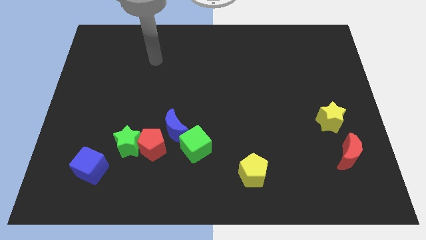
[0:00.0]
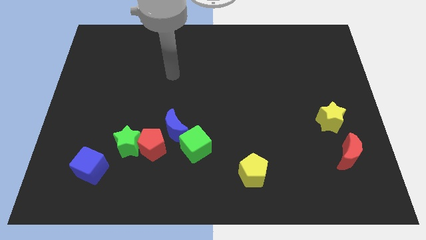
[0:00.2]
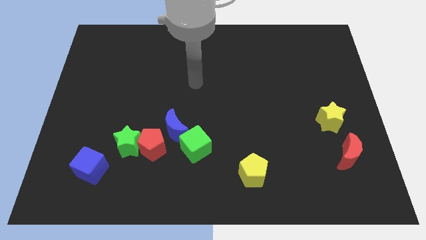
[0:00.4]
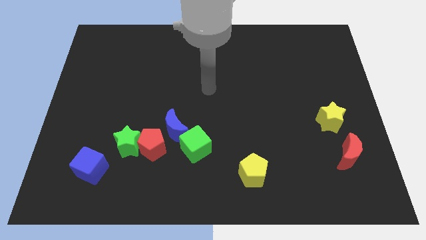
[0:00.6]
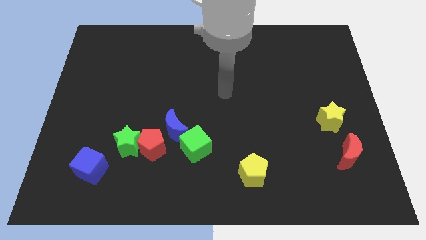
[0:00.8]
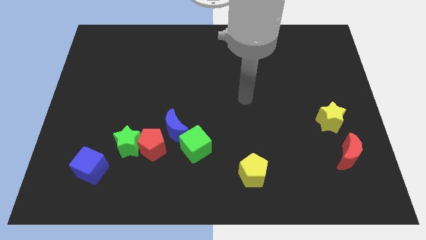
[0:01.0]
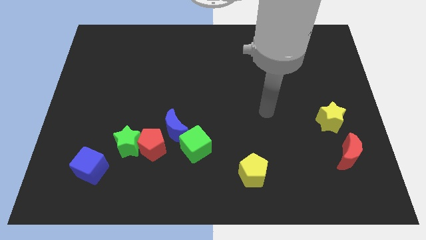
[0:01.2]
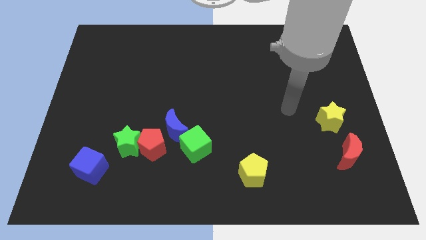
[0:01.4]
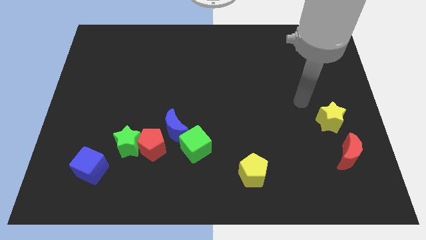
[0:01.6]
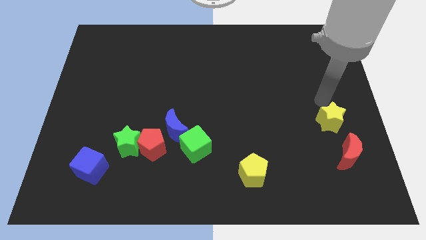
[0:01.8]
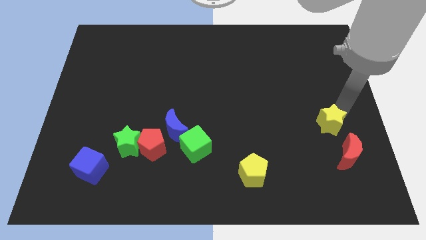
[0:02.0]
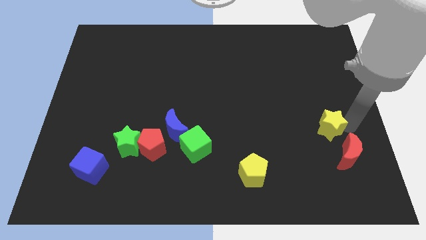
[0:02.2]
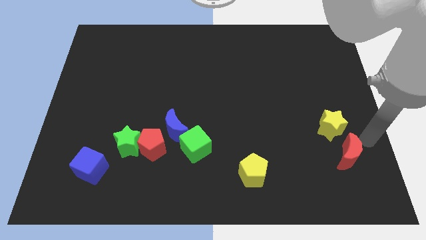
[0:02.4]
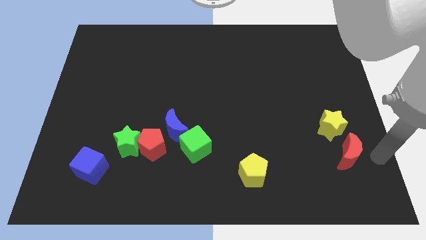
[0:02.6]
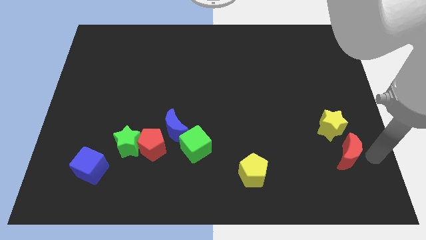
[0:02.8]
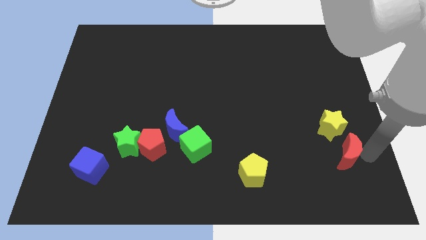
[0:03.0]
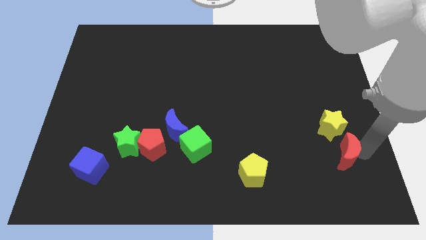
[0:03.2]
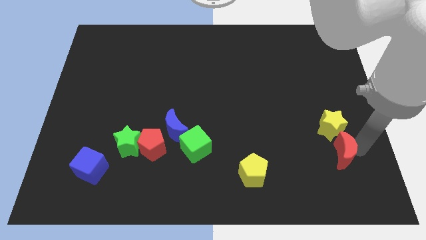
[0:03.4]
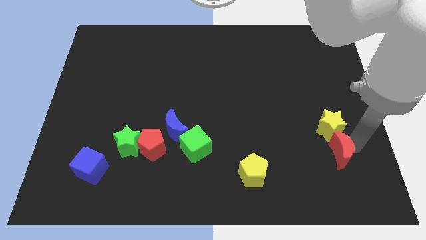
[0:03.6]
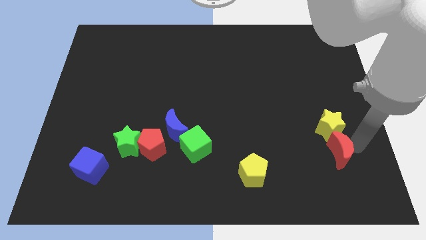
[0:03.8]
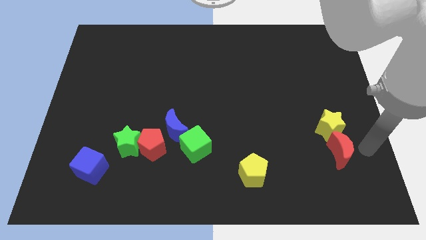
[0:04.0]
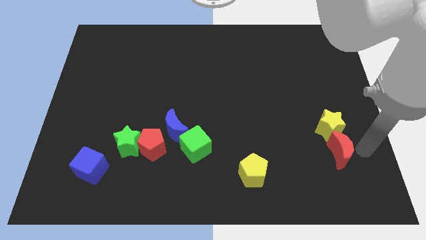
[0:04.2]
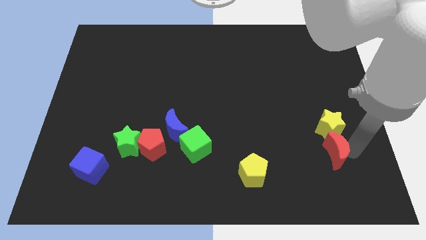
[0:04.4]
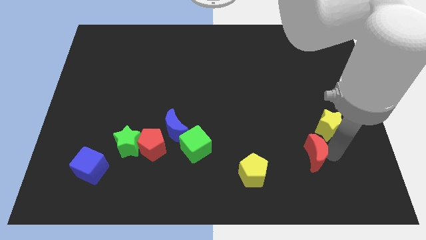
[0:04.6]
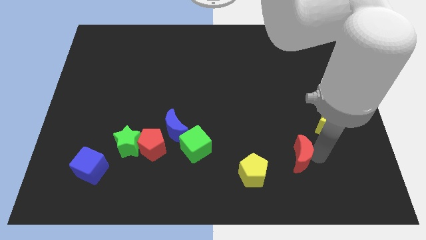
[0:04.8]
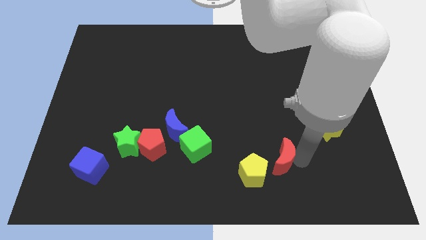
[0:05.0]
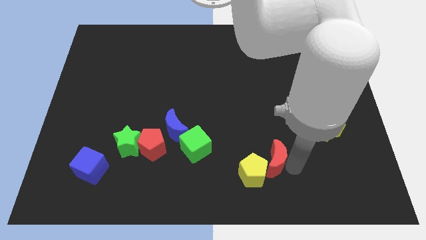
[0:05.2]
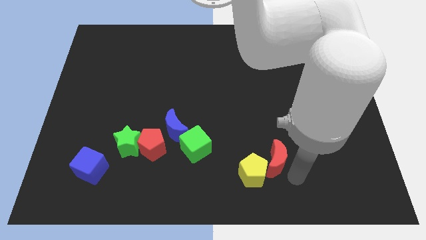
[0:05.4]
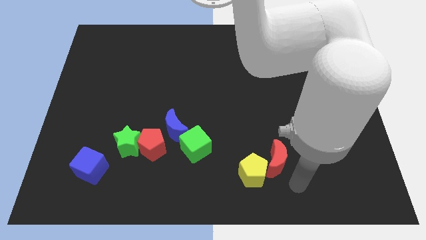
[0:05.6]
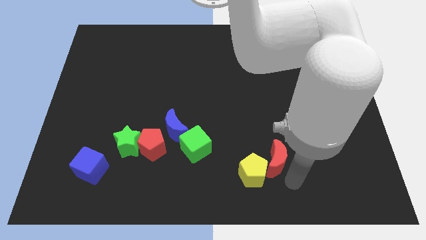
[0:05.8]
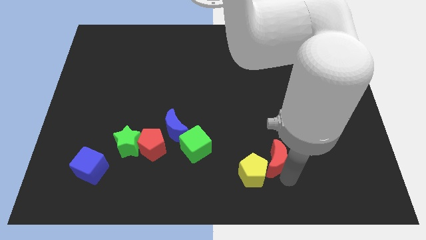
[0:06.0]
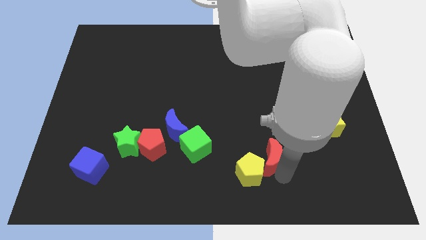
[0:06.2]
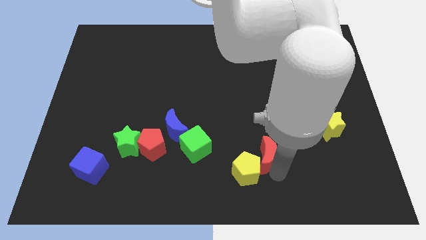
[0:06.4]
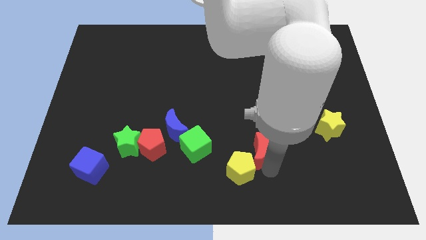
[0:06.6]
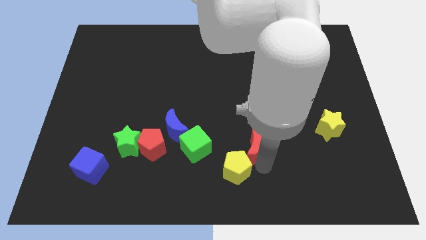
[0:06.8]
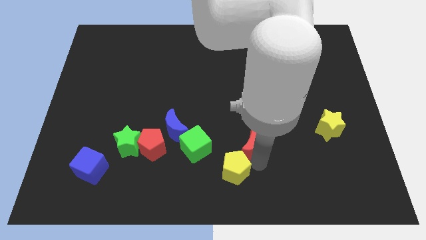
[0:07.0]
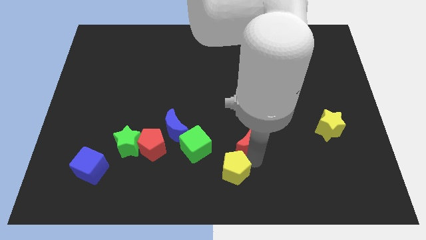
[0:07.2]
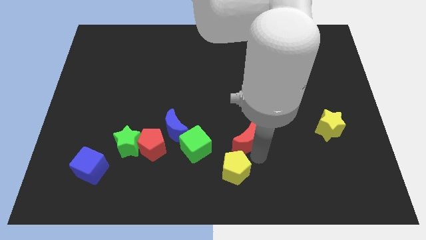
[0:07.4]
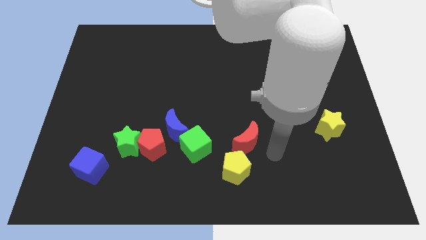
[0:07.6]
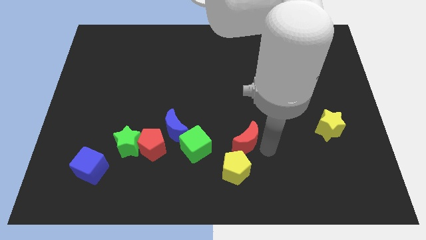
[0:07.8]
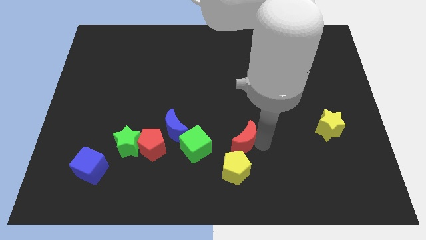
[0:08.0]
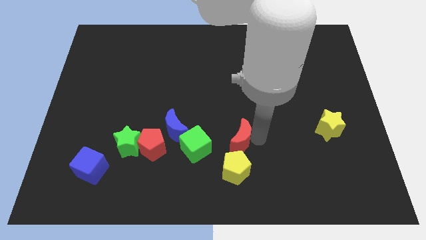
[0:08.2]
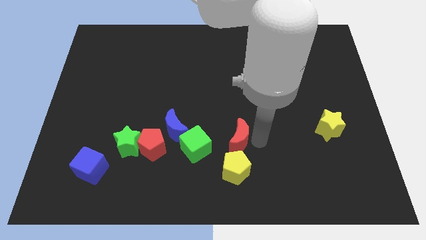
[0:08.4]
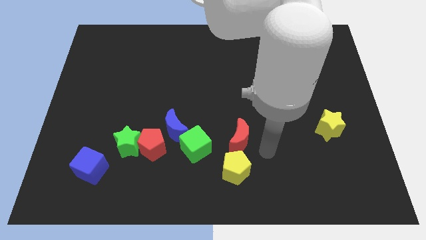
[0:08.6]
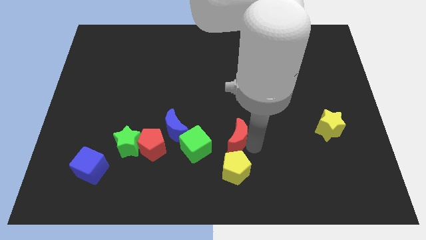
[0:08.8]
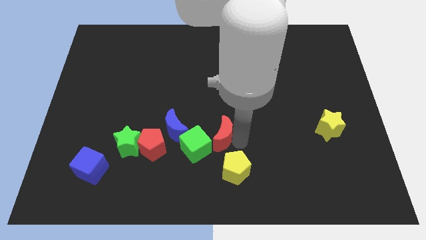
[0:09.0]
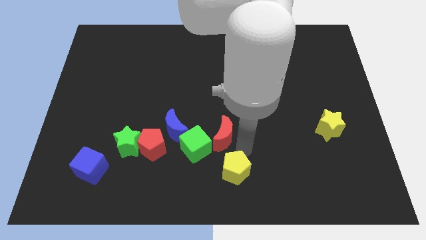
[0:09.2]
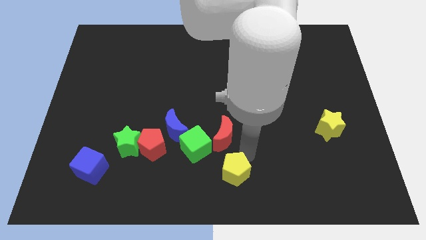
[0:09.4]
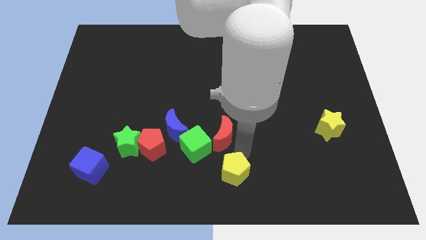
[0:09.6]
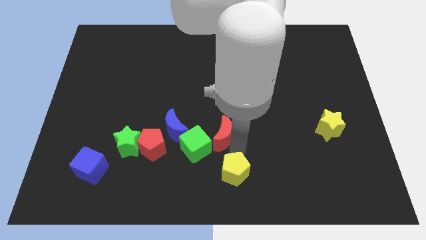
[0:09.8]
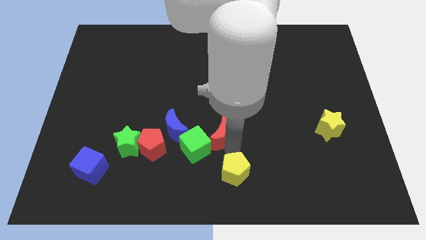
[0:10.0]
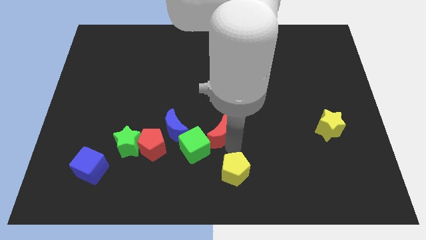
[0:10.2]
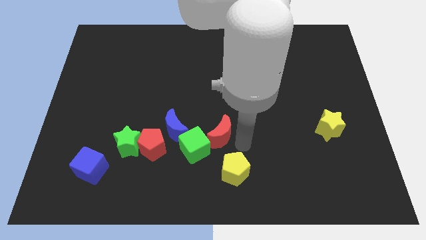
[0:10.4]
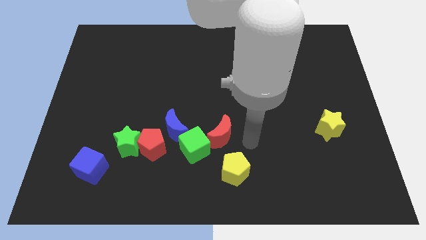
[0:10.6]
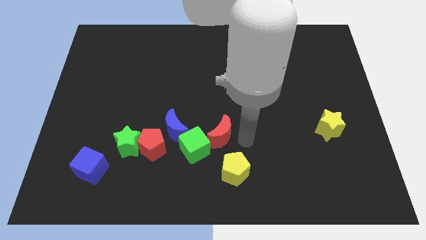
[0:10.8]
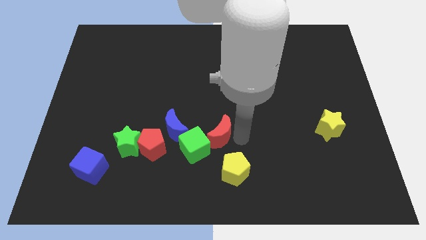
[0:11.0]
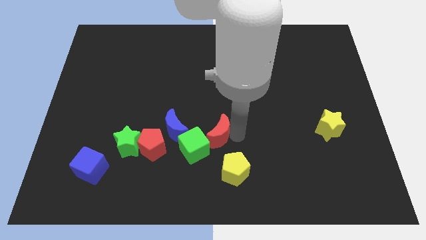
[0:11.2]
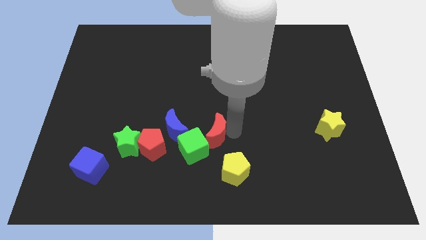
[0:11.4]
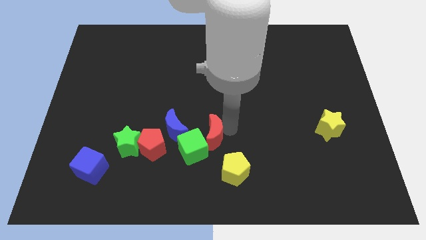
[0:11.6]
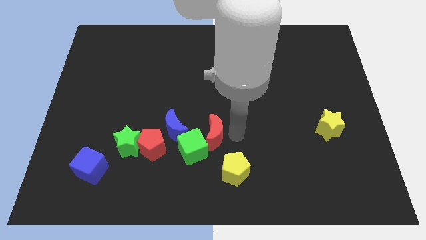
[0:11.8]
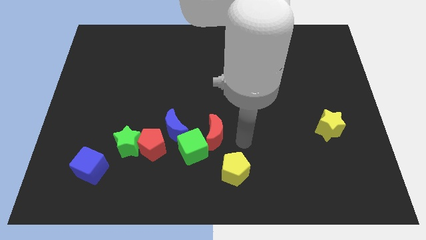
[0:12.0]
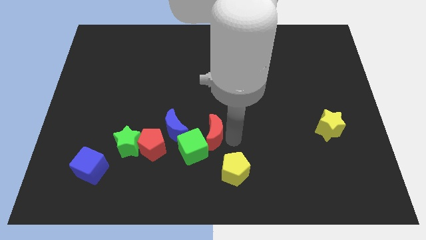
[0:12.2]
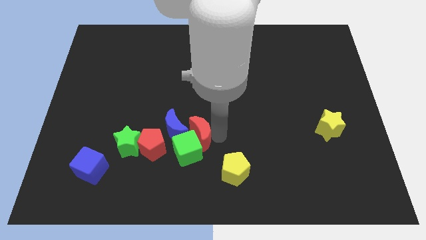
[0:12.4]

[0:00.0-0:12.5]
move the red moon to the blue moon
